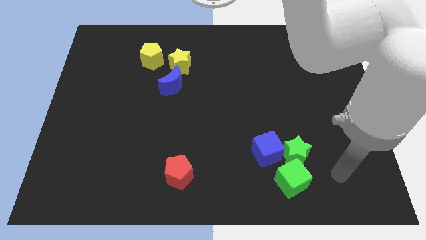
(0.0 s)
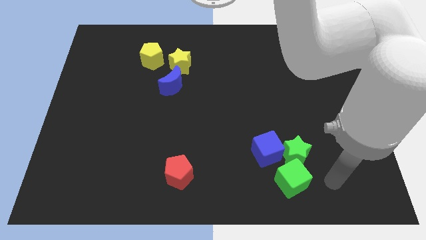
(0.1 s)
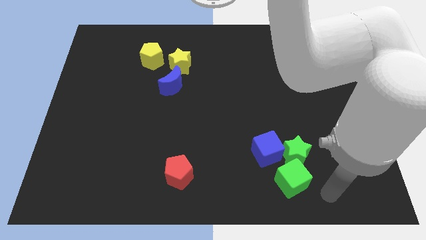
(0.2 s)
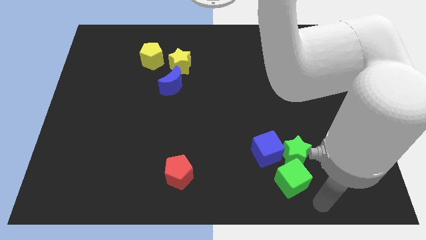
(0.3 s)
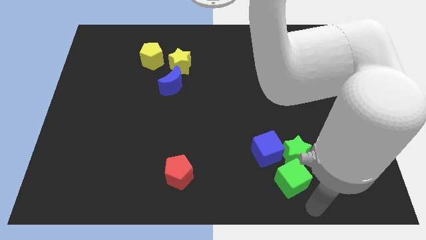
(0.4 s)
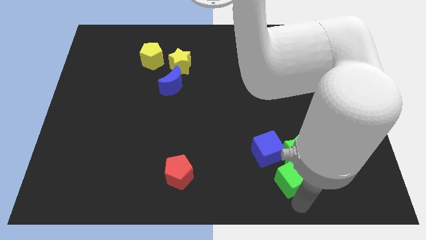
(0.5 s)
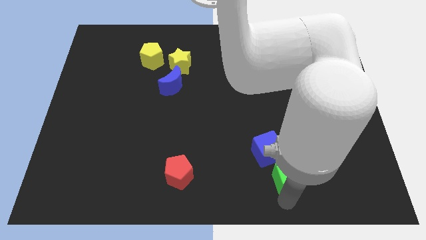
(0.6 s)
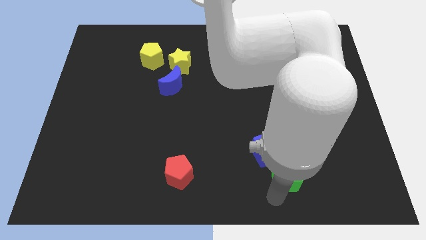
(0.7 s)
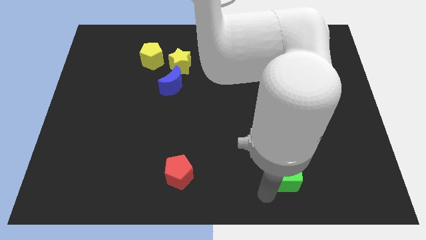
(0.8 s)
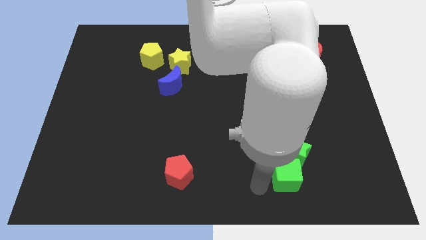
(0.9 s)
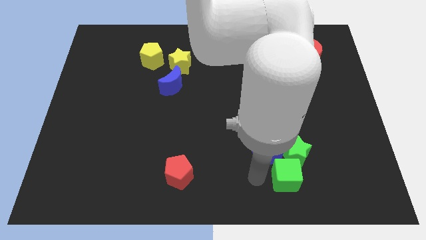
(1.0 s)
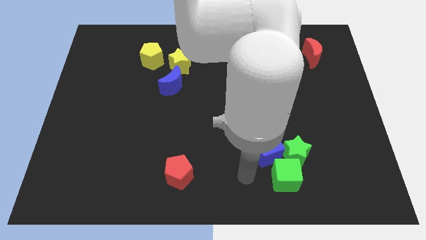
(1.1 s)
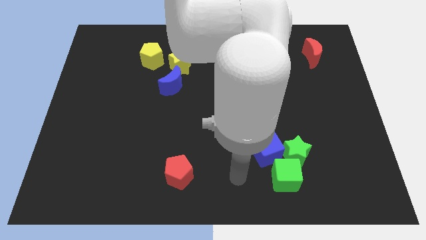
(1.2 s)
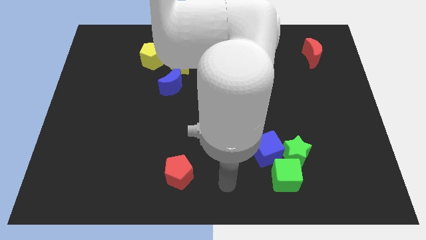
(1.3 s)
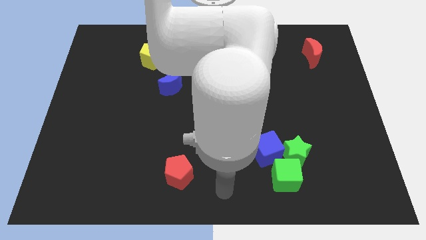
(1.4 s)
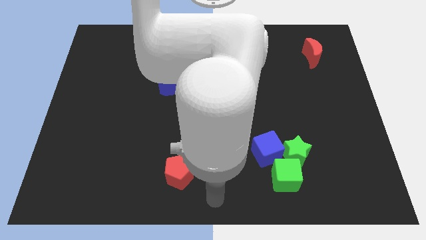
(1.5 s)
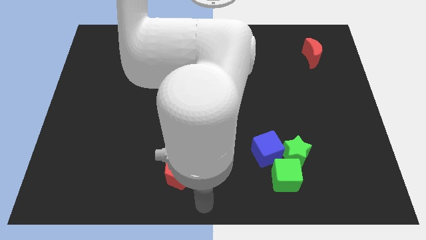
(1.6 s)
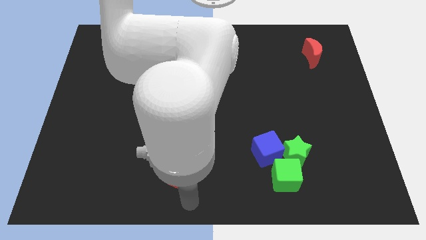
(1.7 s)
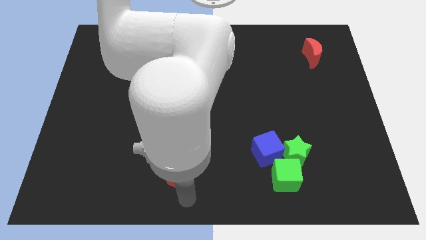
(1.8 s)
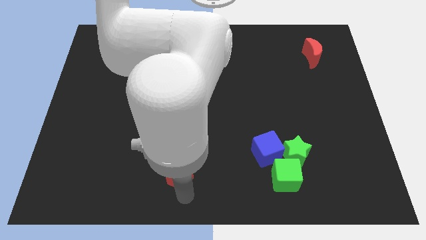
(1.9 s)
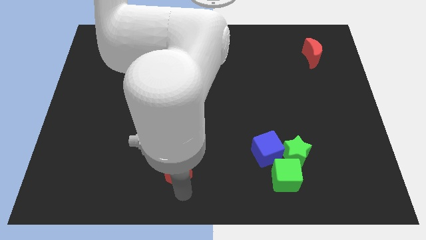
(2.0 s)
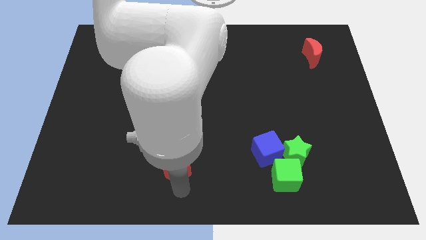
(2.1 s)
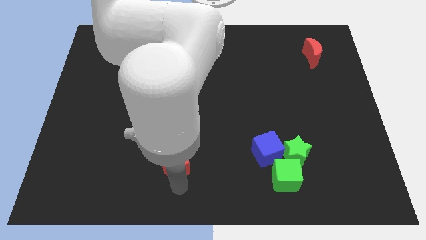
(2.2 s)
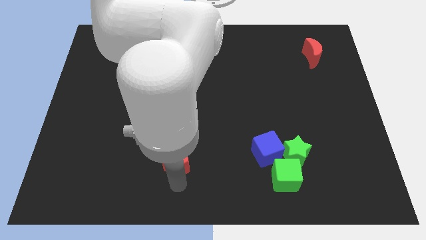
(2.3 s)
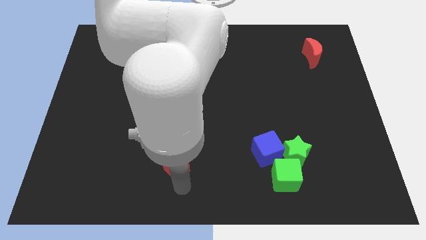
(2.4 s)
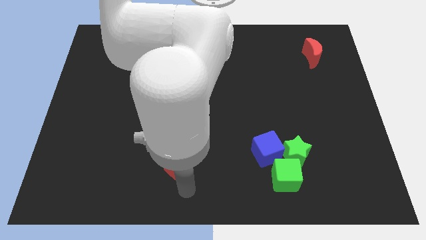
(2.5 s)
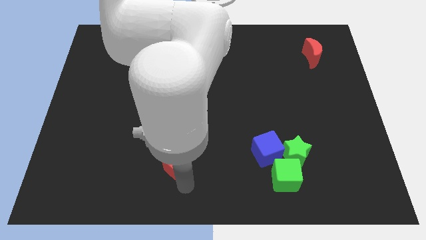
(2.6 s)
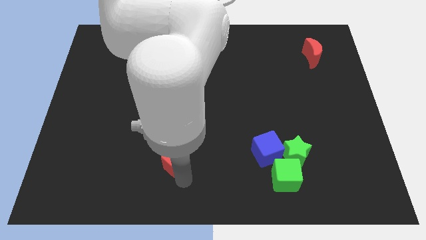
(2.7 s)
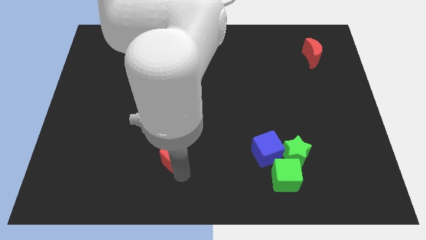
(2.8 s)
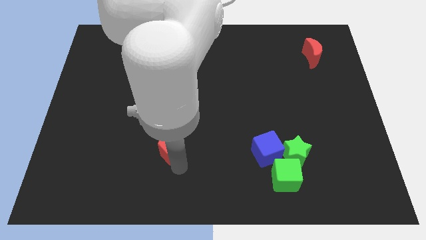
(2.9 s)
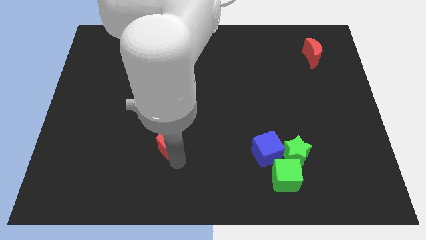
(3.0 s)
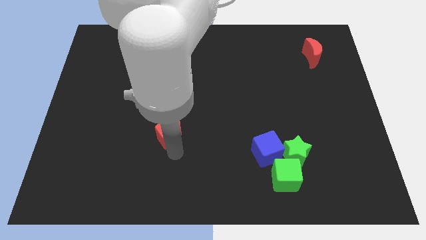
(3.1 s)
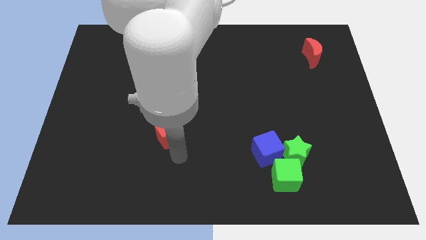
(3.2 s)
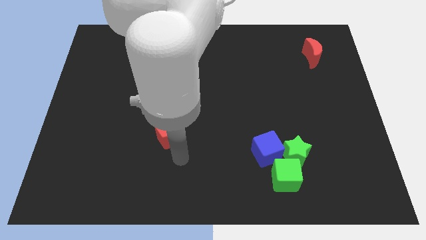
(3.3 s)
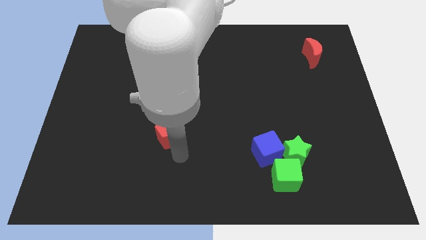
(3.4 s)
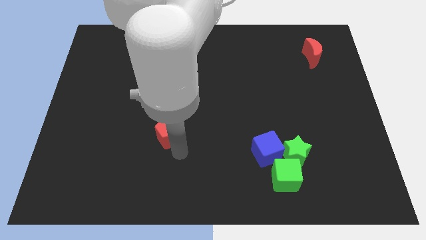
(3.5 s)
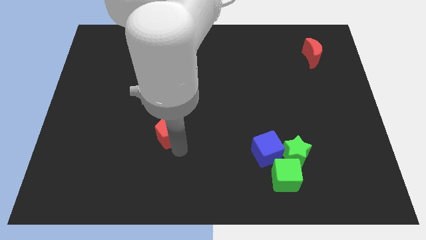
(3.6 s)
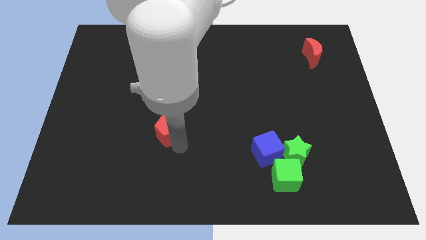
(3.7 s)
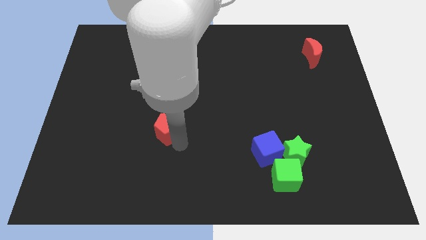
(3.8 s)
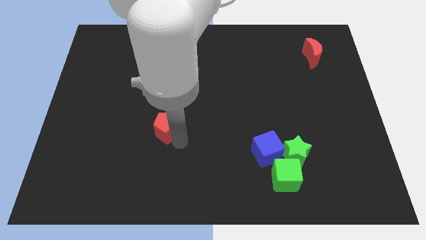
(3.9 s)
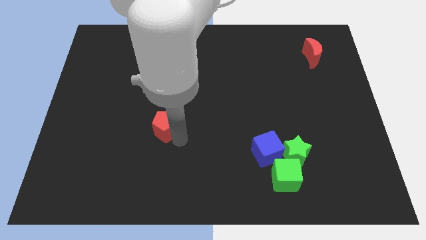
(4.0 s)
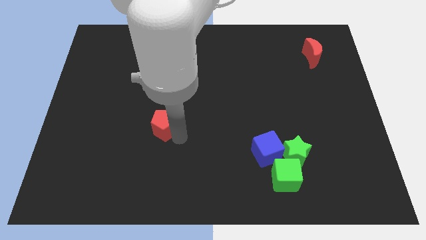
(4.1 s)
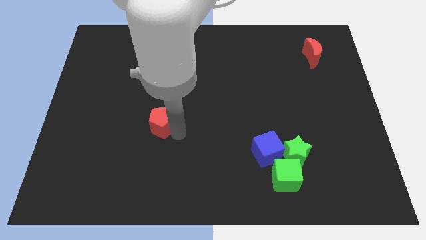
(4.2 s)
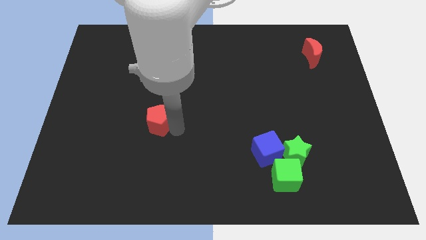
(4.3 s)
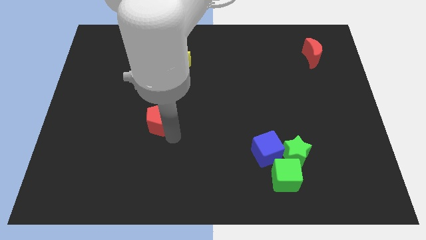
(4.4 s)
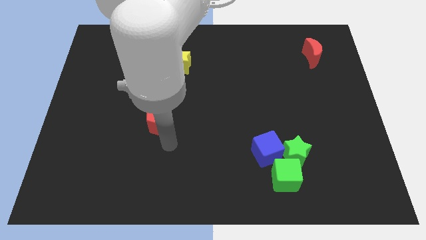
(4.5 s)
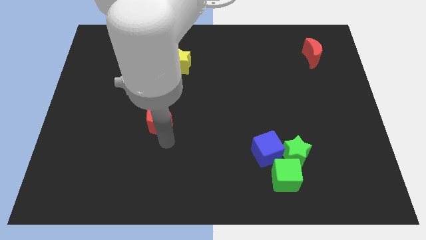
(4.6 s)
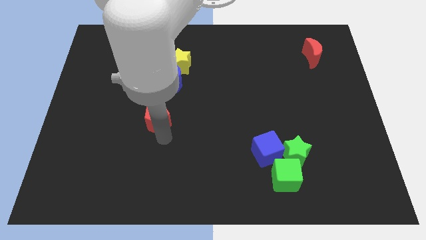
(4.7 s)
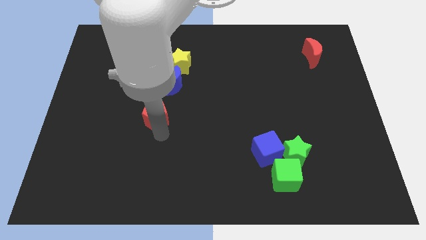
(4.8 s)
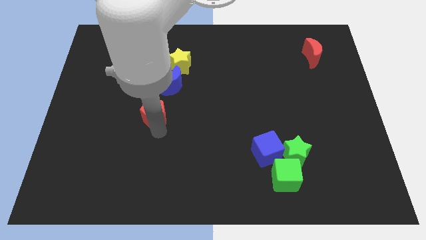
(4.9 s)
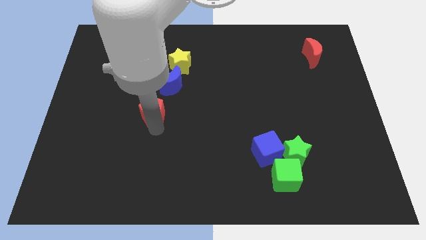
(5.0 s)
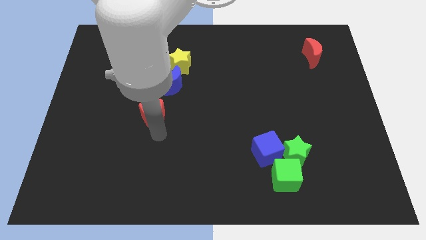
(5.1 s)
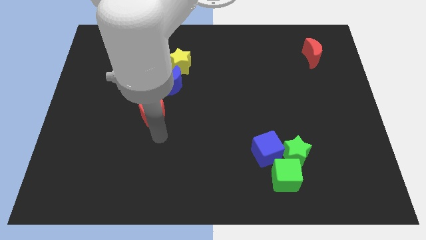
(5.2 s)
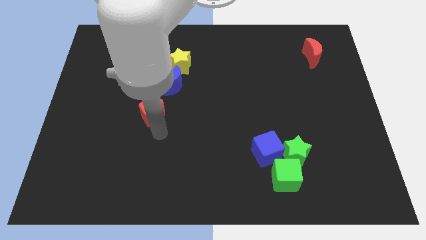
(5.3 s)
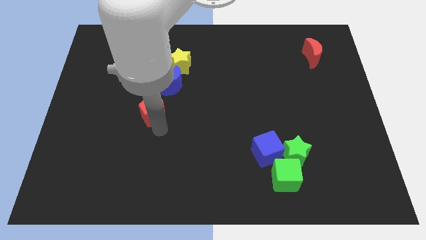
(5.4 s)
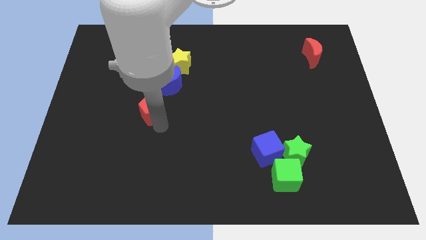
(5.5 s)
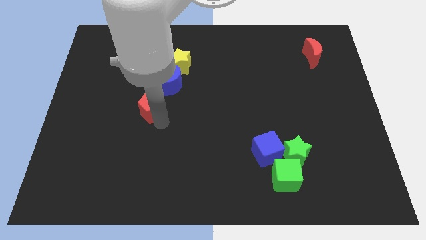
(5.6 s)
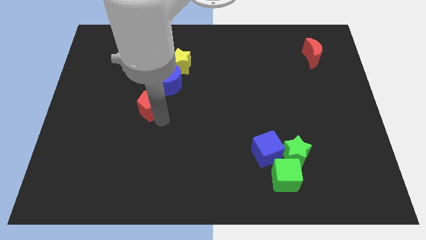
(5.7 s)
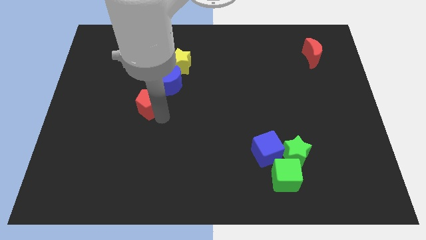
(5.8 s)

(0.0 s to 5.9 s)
put the red pentagon to the bottom of the yellow pentagon

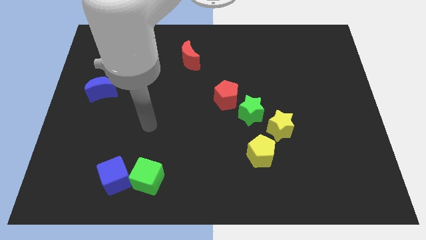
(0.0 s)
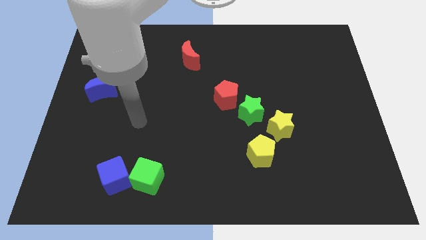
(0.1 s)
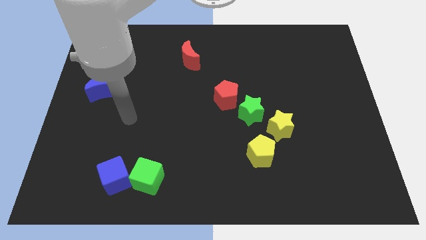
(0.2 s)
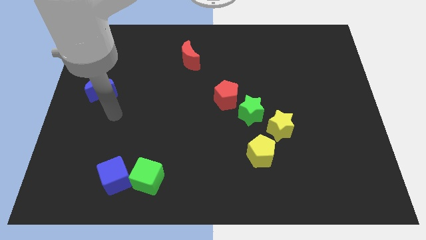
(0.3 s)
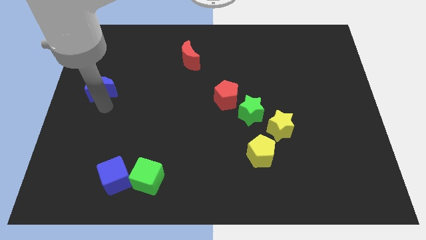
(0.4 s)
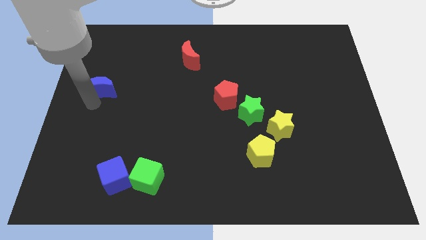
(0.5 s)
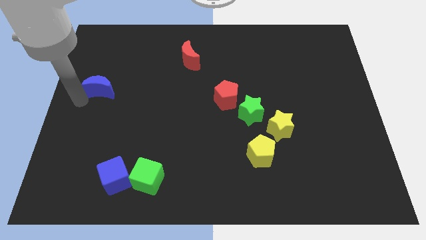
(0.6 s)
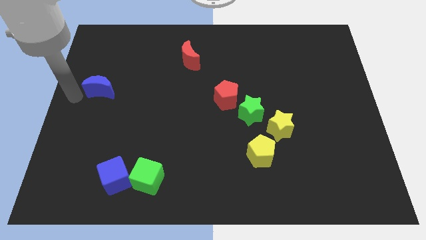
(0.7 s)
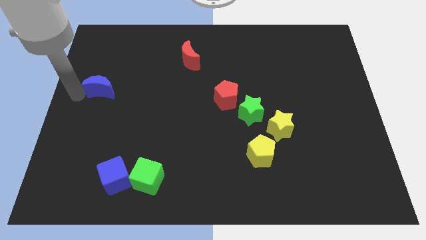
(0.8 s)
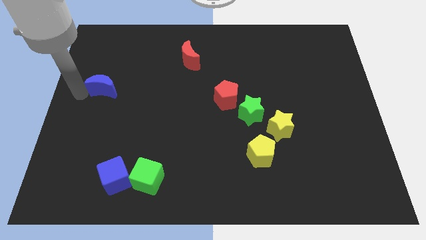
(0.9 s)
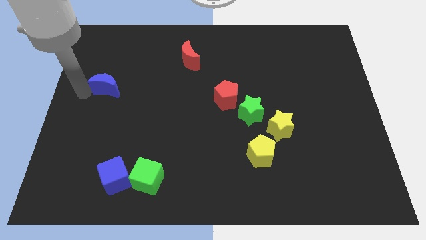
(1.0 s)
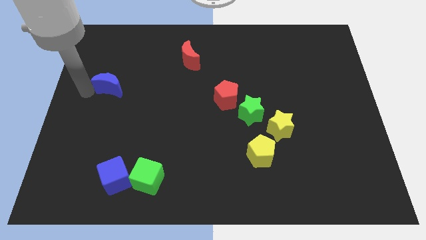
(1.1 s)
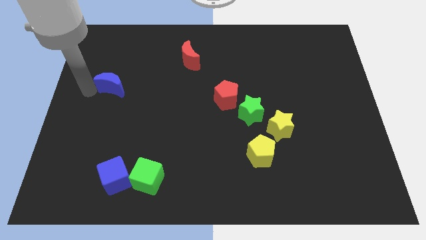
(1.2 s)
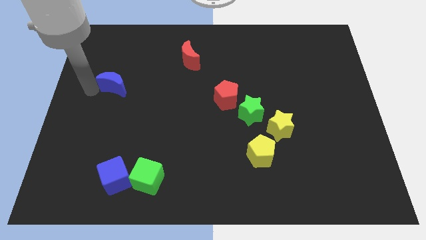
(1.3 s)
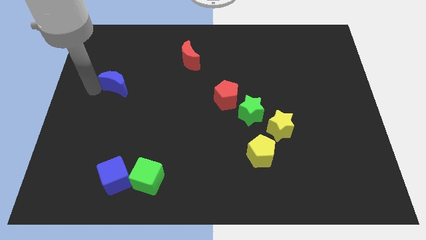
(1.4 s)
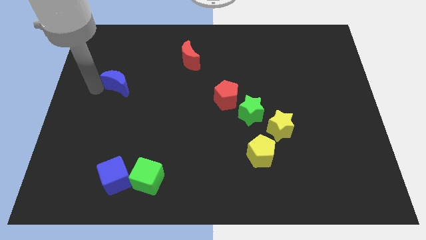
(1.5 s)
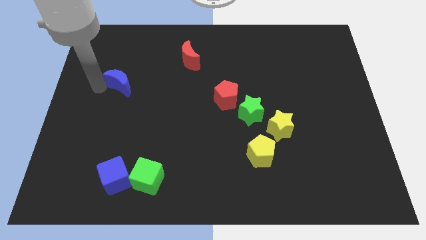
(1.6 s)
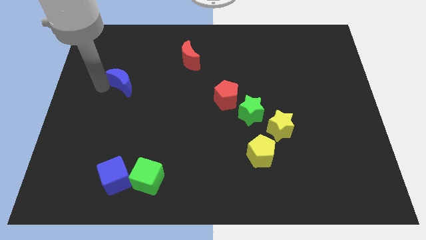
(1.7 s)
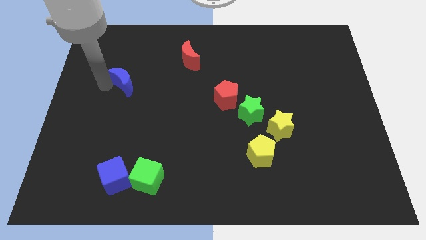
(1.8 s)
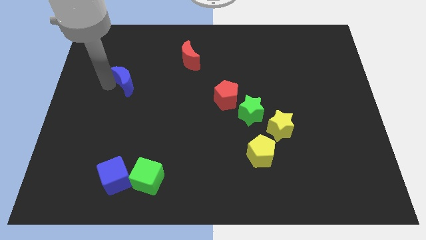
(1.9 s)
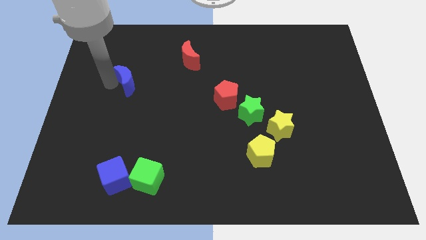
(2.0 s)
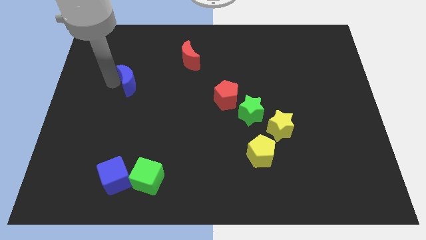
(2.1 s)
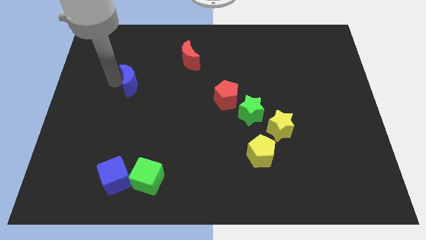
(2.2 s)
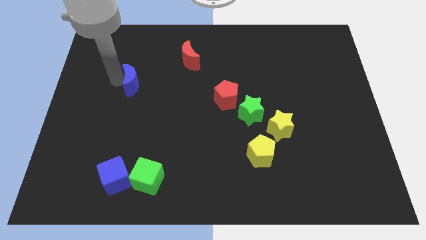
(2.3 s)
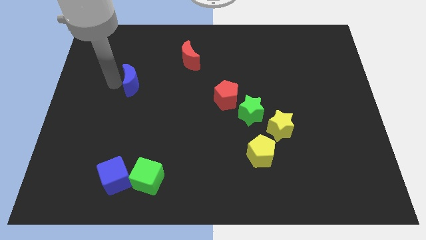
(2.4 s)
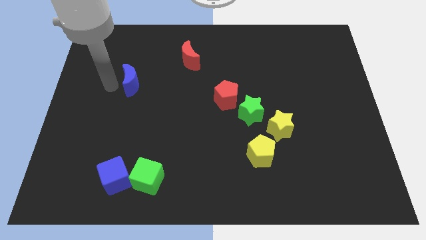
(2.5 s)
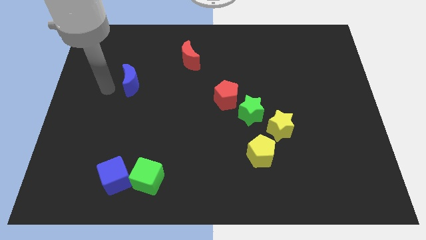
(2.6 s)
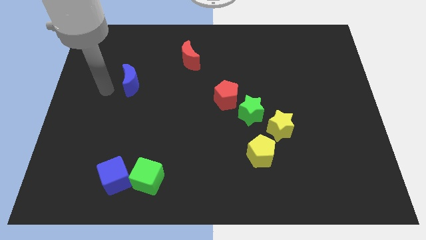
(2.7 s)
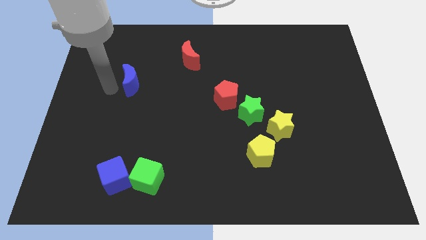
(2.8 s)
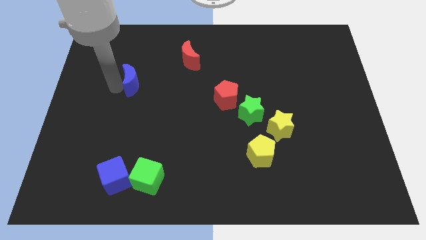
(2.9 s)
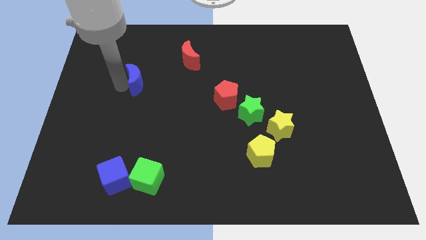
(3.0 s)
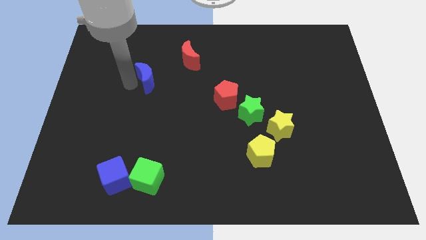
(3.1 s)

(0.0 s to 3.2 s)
push the blue moon to the bottom left of the red moon
